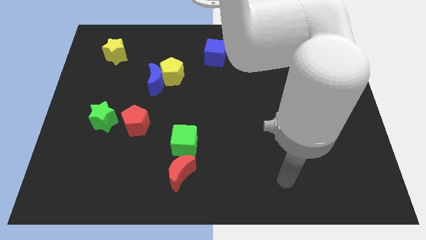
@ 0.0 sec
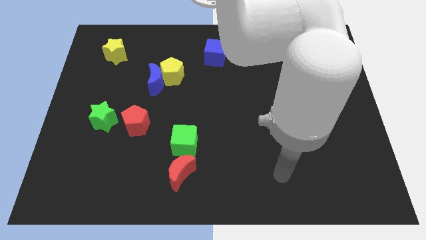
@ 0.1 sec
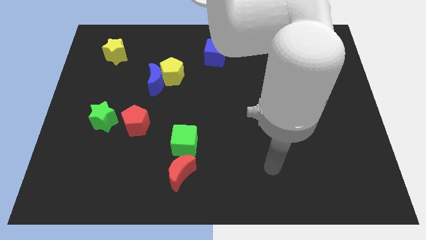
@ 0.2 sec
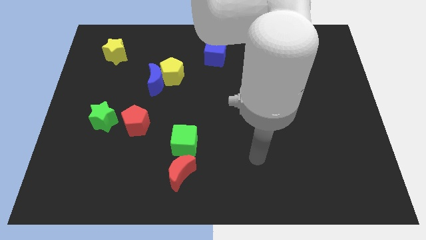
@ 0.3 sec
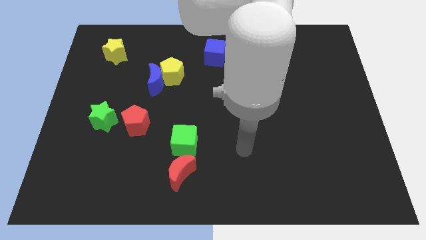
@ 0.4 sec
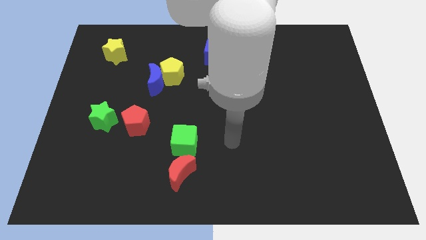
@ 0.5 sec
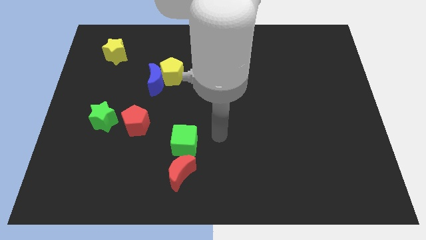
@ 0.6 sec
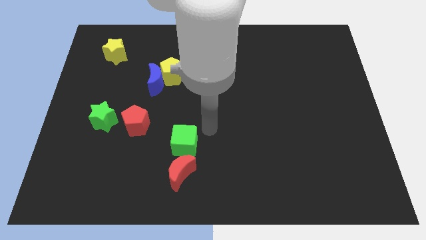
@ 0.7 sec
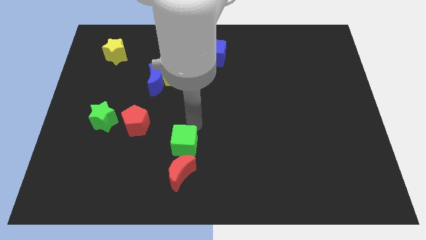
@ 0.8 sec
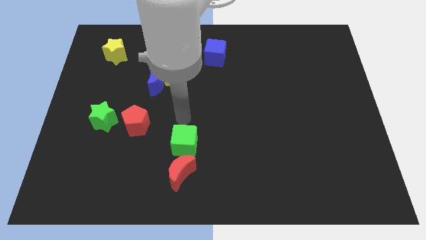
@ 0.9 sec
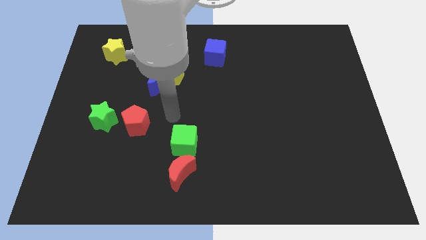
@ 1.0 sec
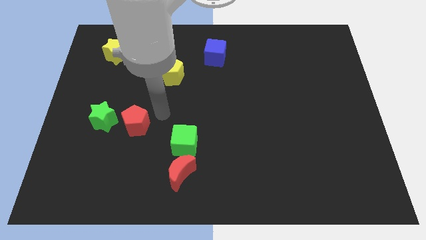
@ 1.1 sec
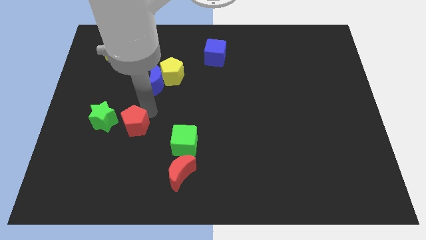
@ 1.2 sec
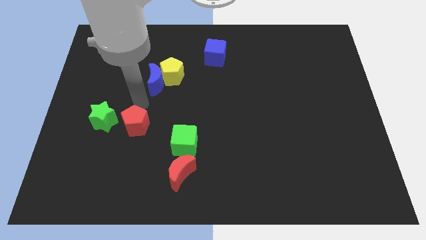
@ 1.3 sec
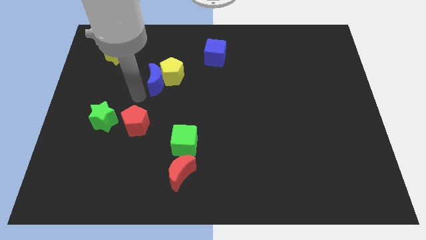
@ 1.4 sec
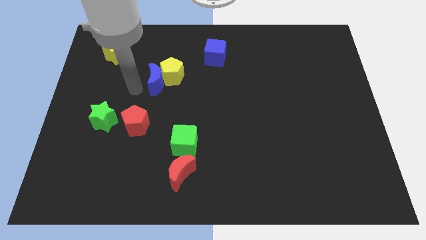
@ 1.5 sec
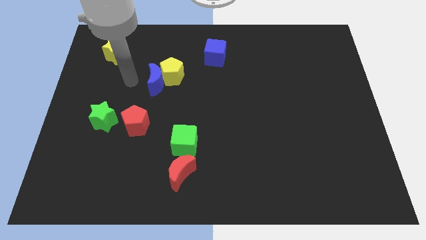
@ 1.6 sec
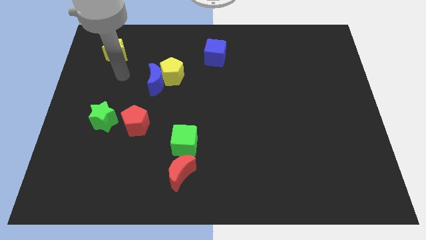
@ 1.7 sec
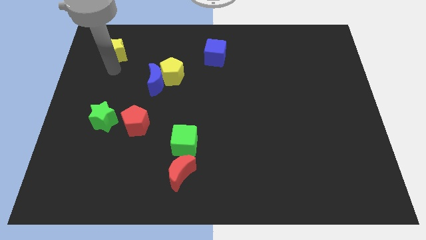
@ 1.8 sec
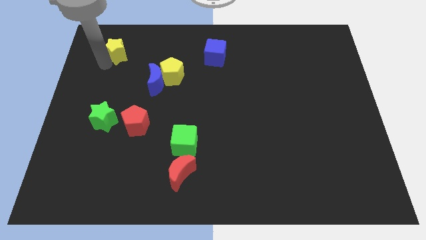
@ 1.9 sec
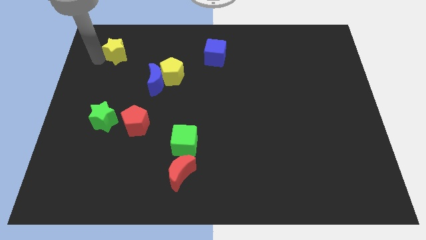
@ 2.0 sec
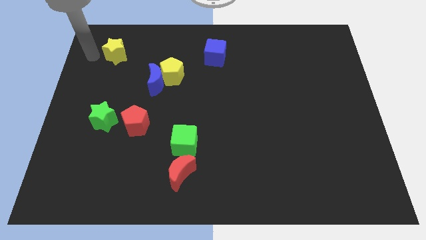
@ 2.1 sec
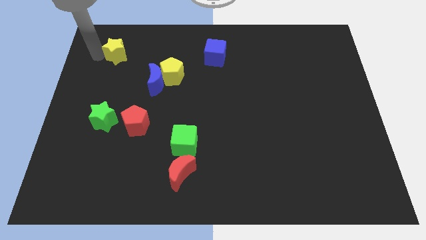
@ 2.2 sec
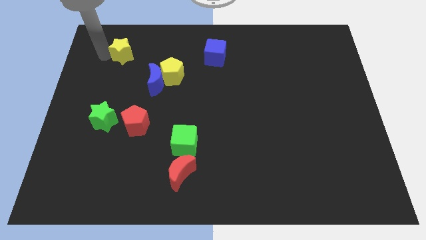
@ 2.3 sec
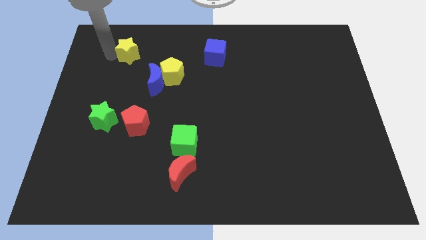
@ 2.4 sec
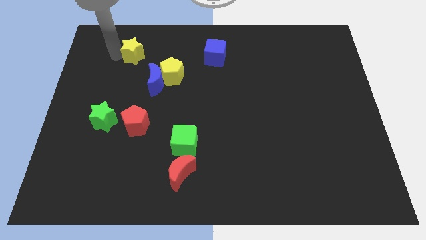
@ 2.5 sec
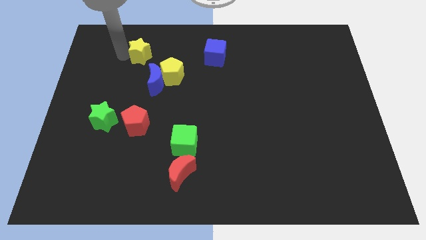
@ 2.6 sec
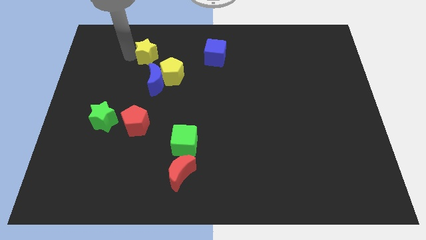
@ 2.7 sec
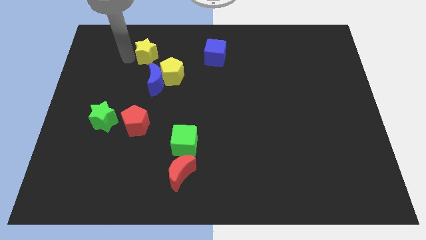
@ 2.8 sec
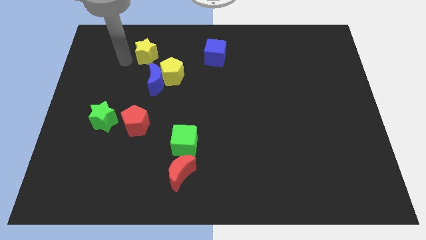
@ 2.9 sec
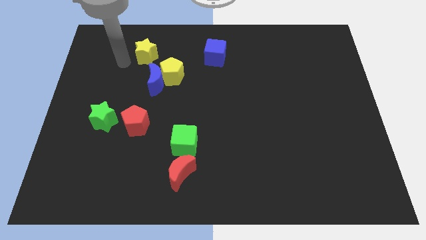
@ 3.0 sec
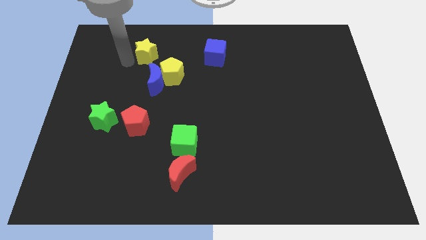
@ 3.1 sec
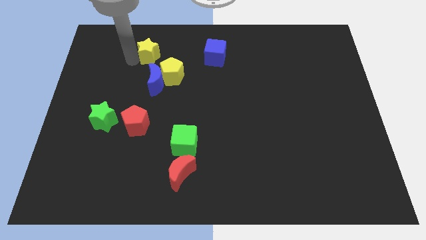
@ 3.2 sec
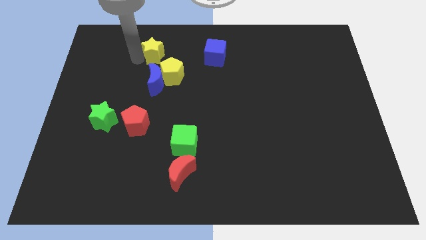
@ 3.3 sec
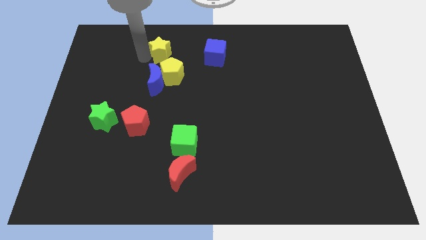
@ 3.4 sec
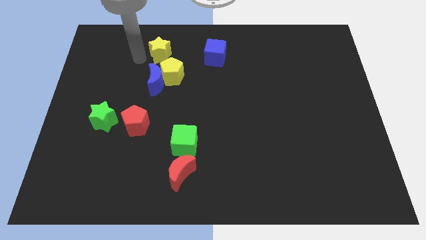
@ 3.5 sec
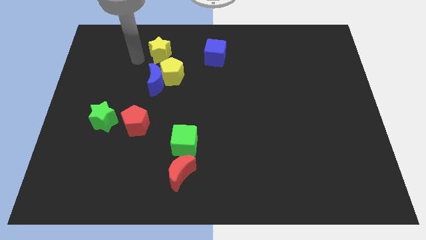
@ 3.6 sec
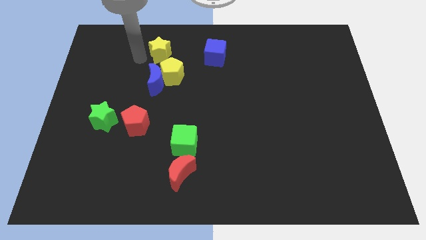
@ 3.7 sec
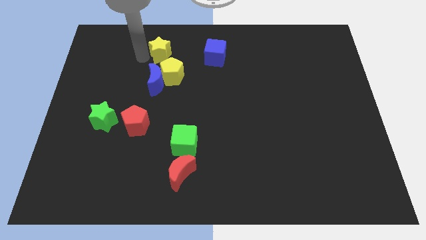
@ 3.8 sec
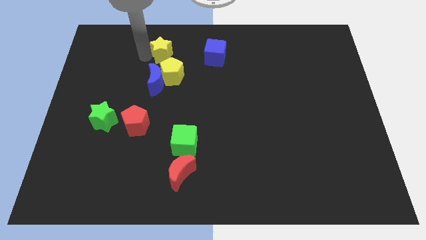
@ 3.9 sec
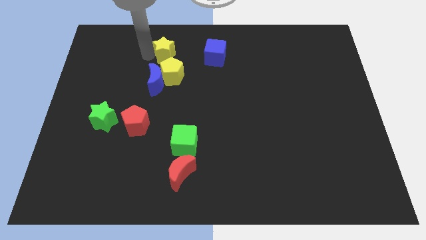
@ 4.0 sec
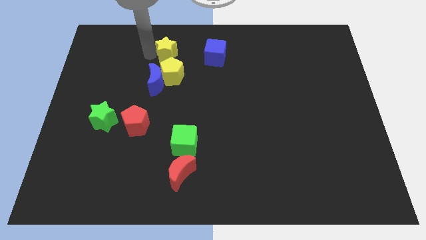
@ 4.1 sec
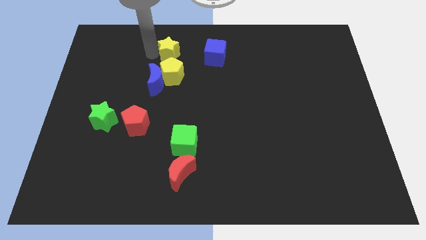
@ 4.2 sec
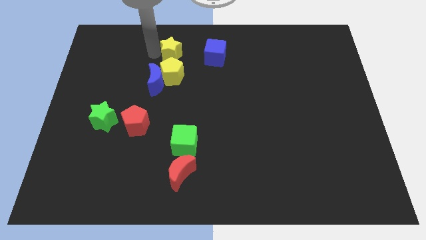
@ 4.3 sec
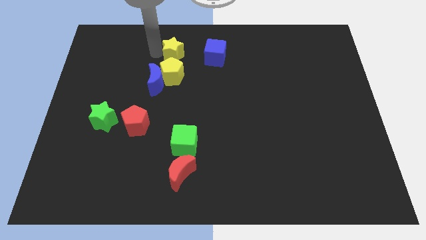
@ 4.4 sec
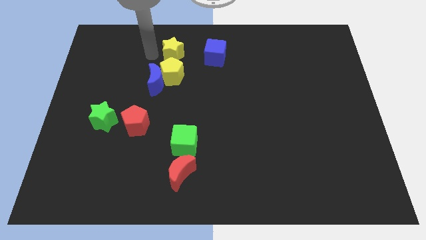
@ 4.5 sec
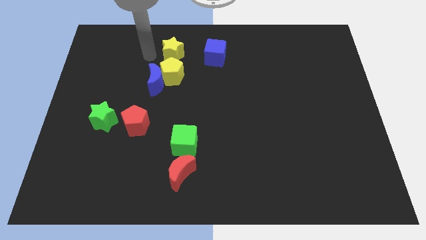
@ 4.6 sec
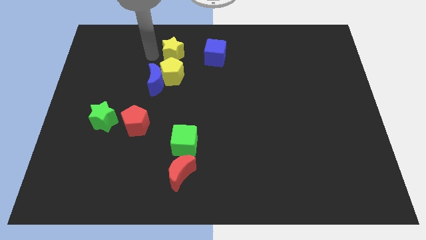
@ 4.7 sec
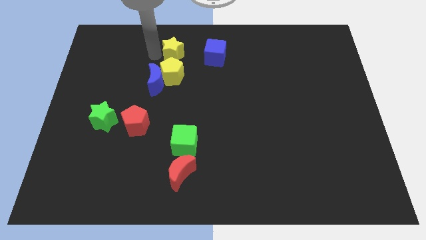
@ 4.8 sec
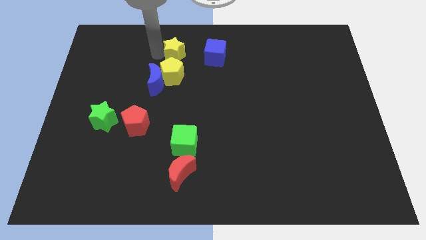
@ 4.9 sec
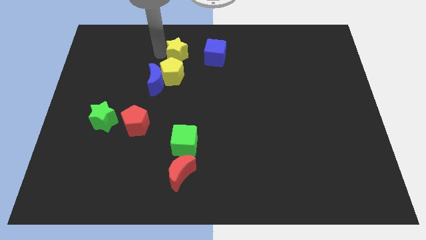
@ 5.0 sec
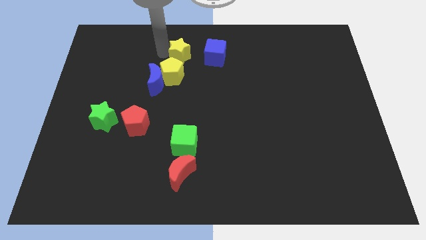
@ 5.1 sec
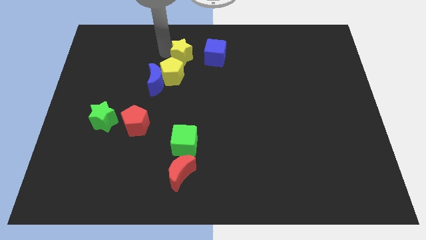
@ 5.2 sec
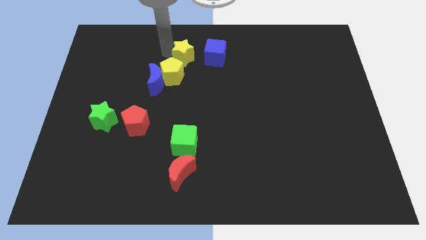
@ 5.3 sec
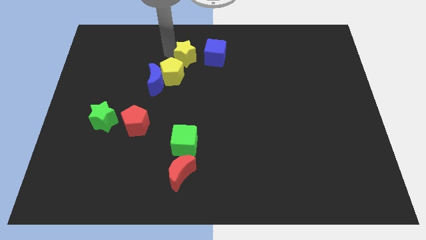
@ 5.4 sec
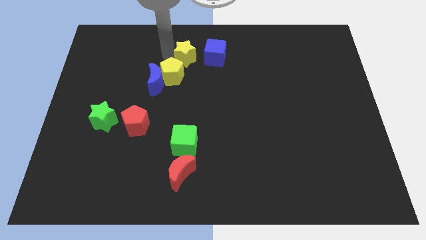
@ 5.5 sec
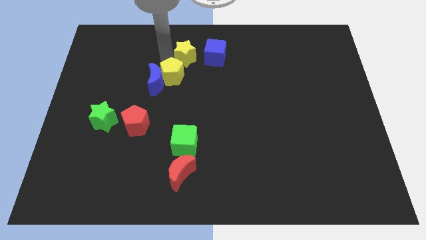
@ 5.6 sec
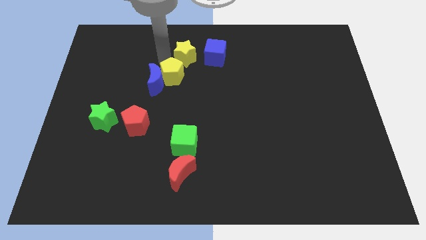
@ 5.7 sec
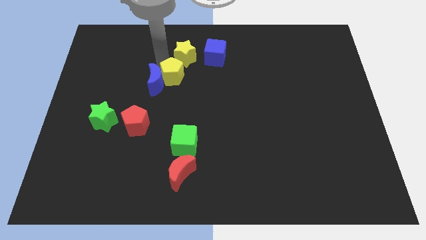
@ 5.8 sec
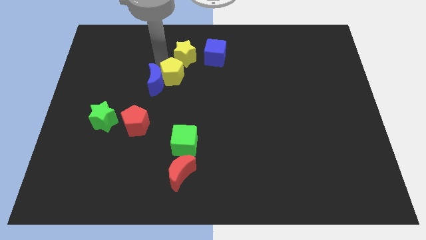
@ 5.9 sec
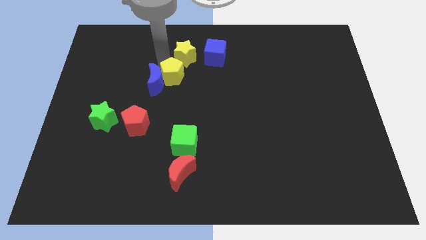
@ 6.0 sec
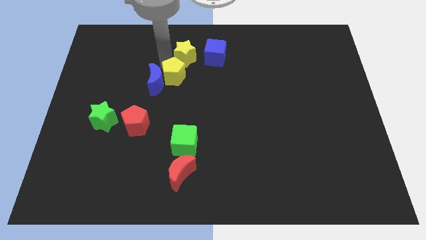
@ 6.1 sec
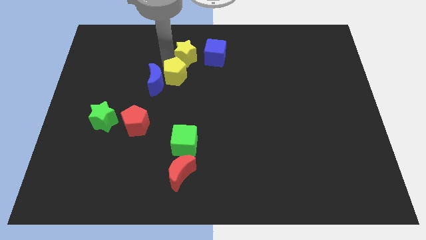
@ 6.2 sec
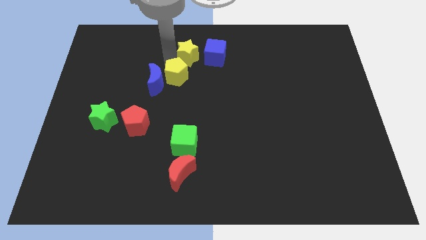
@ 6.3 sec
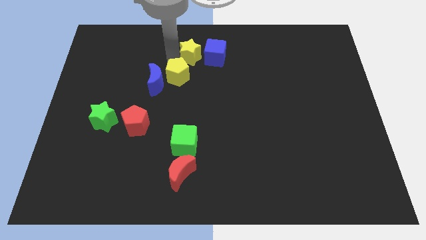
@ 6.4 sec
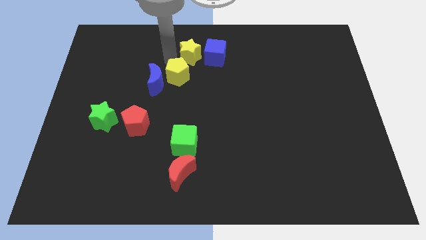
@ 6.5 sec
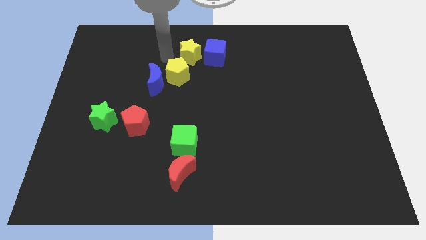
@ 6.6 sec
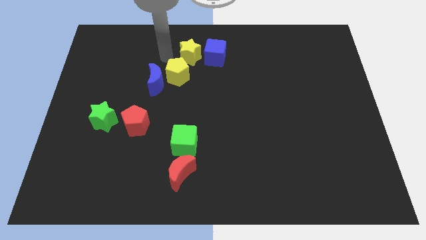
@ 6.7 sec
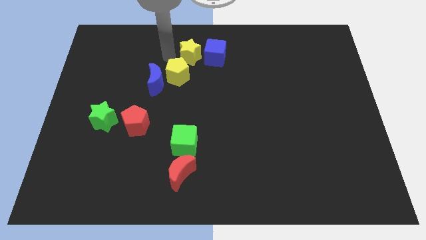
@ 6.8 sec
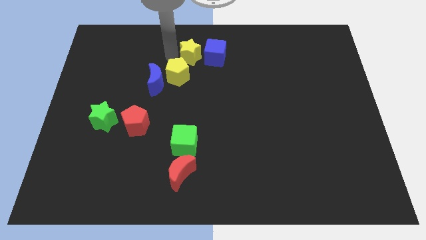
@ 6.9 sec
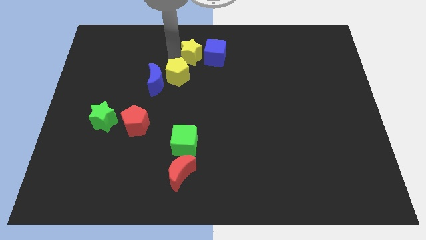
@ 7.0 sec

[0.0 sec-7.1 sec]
put the yellow star towards the blue cube
